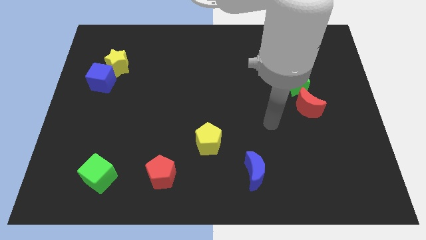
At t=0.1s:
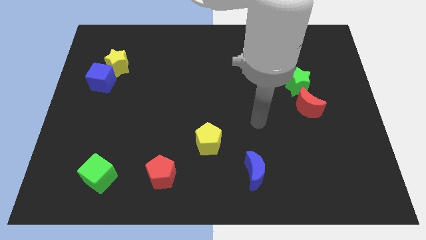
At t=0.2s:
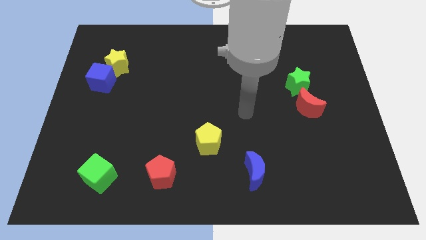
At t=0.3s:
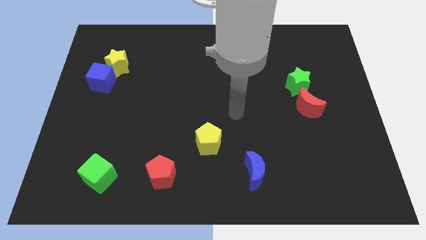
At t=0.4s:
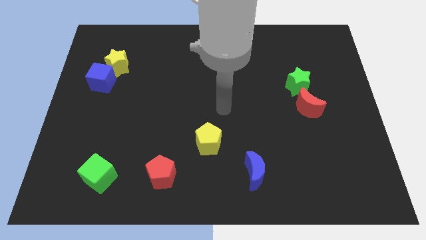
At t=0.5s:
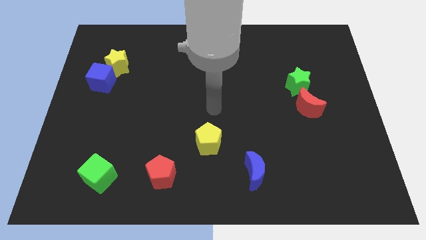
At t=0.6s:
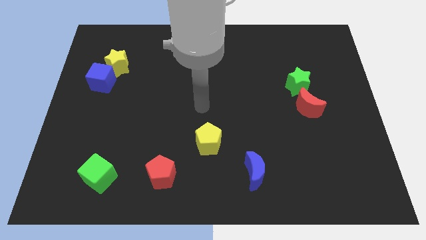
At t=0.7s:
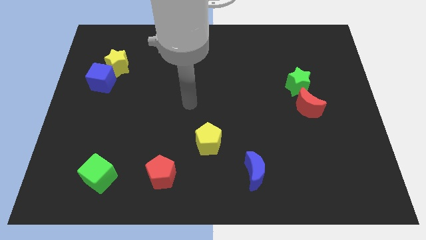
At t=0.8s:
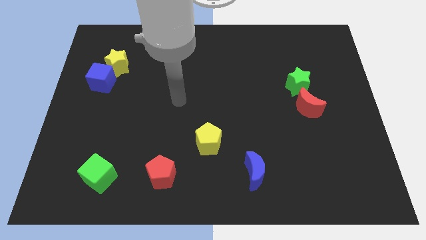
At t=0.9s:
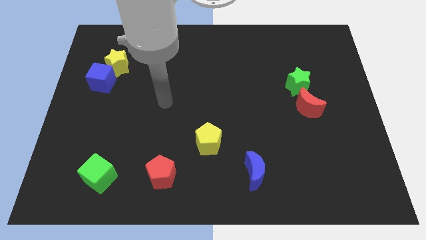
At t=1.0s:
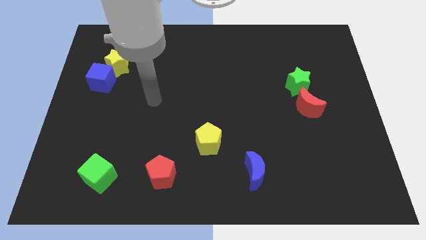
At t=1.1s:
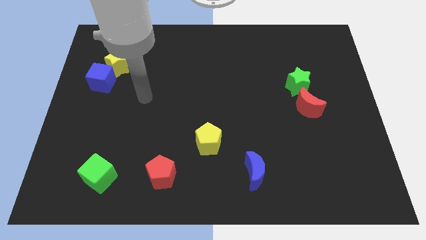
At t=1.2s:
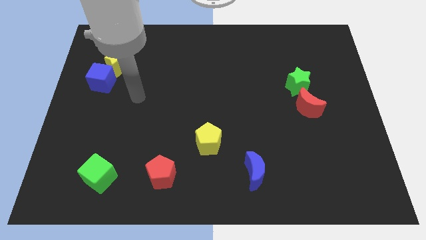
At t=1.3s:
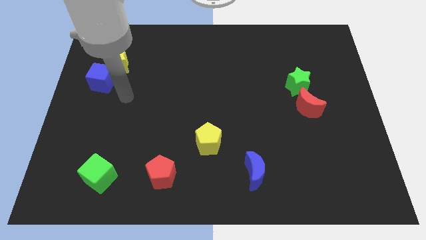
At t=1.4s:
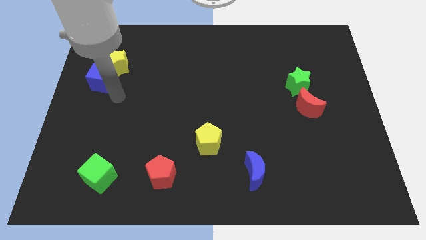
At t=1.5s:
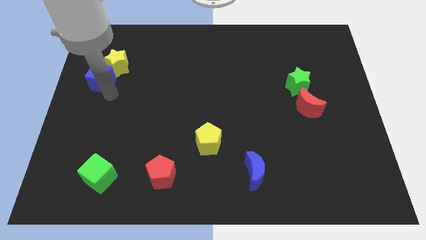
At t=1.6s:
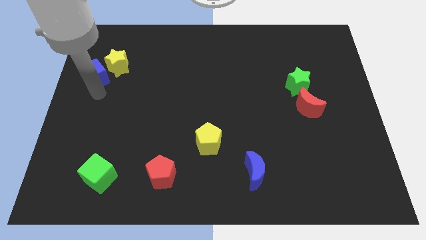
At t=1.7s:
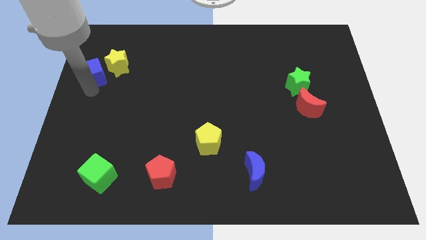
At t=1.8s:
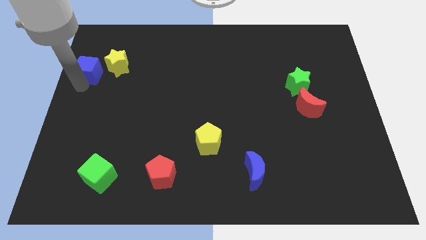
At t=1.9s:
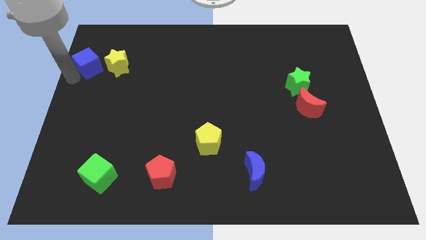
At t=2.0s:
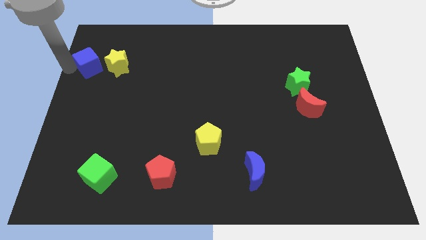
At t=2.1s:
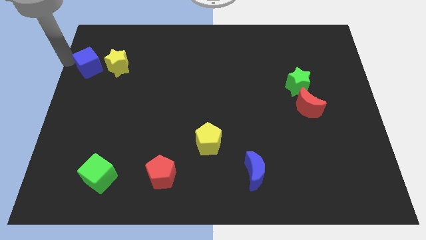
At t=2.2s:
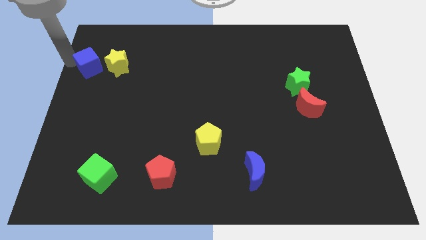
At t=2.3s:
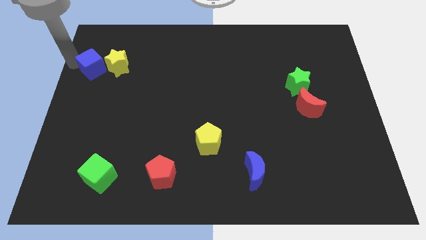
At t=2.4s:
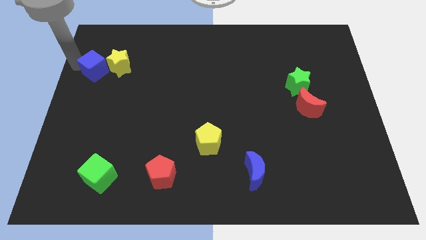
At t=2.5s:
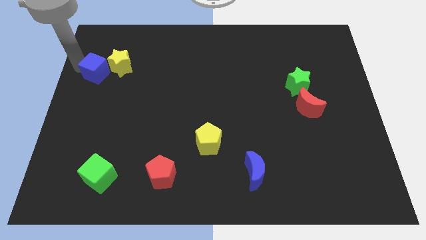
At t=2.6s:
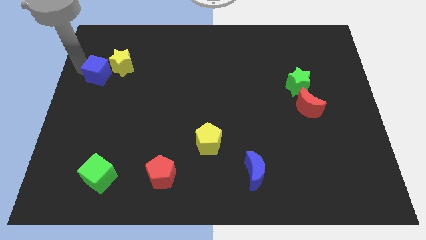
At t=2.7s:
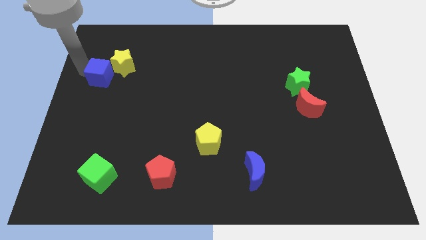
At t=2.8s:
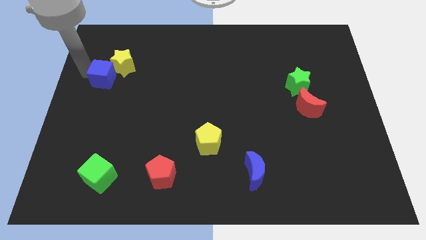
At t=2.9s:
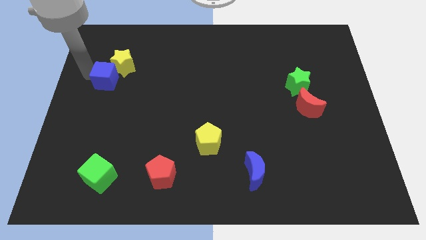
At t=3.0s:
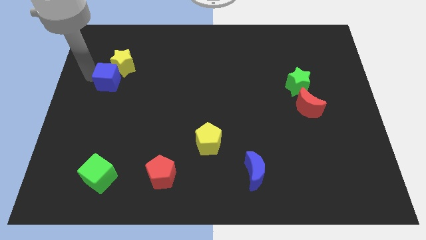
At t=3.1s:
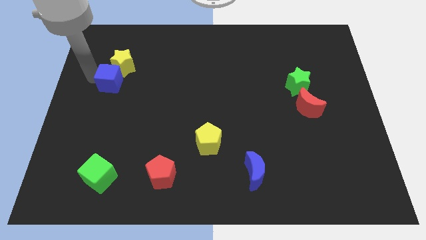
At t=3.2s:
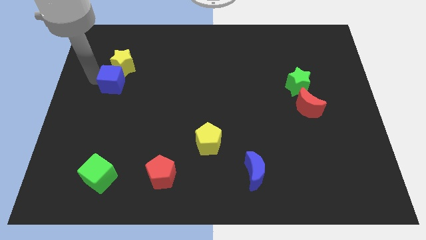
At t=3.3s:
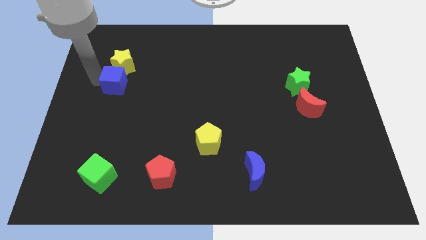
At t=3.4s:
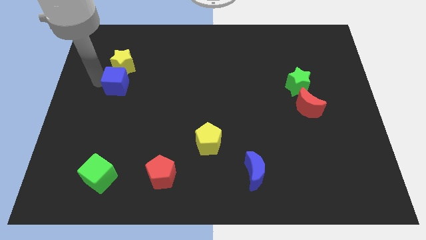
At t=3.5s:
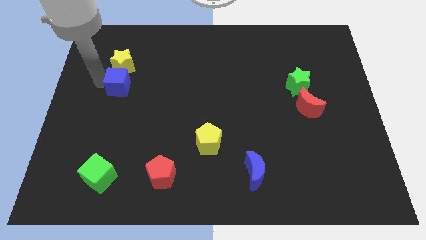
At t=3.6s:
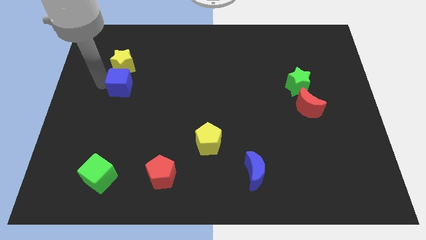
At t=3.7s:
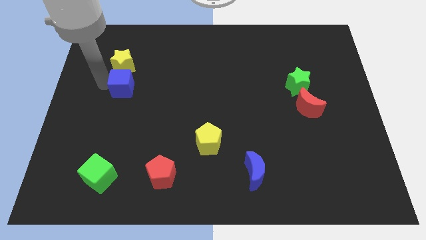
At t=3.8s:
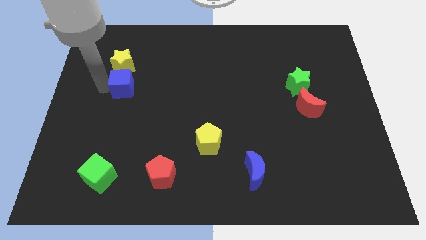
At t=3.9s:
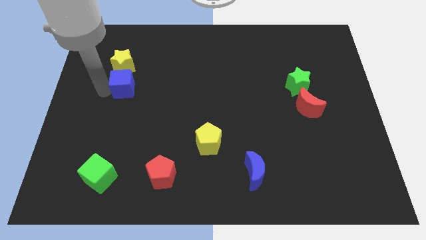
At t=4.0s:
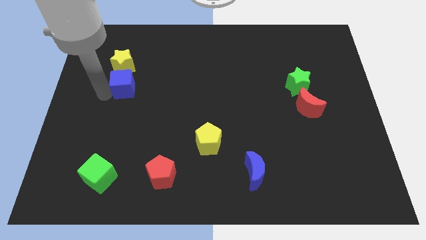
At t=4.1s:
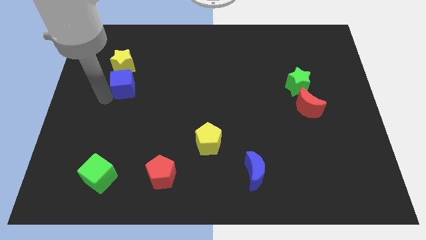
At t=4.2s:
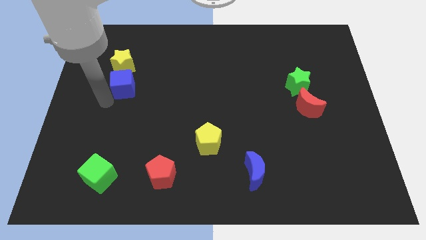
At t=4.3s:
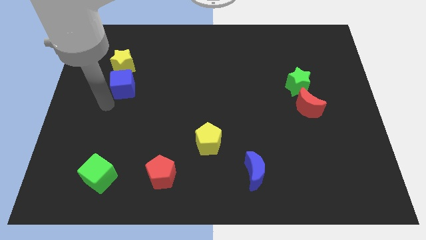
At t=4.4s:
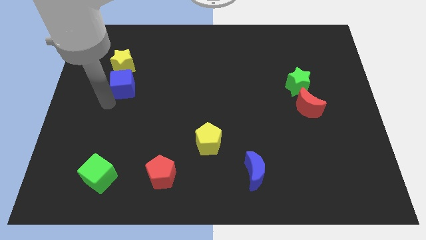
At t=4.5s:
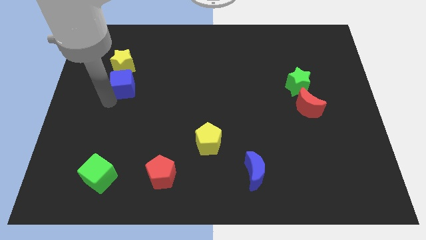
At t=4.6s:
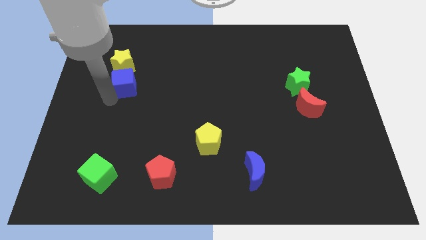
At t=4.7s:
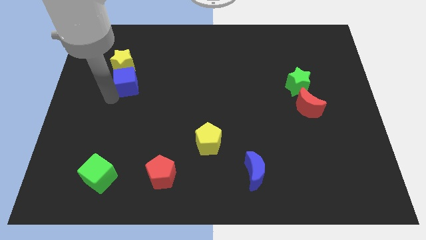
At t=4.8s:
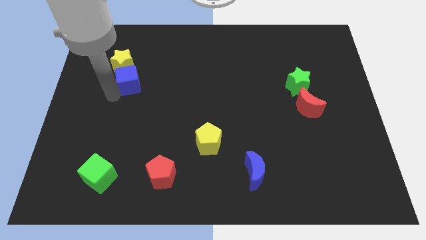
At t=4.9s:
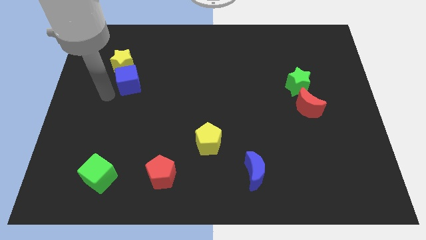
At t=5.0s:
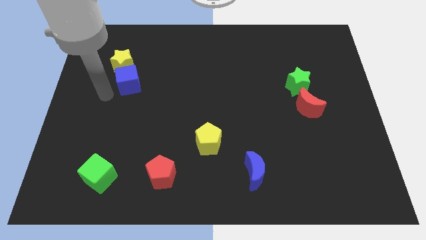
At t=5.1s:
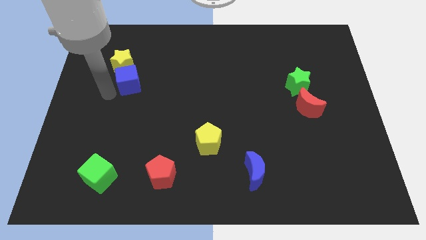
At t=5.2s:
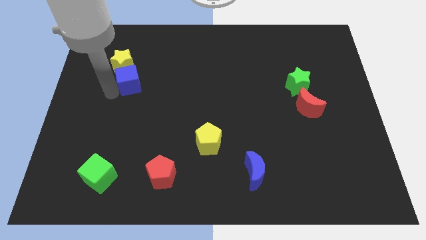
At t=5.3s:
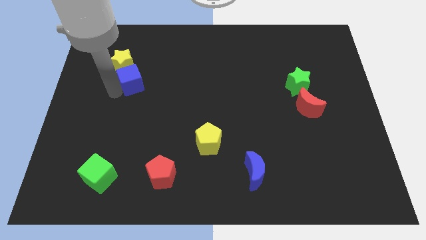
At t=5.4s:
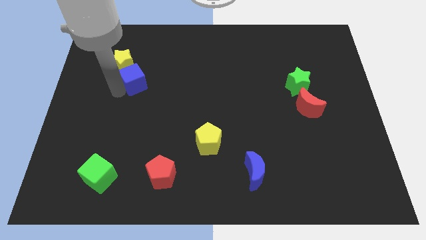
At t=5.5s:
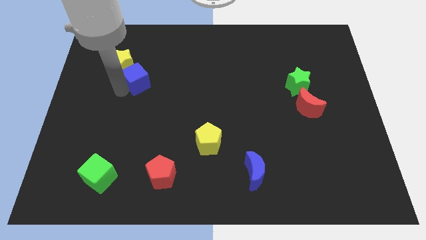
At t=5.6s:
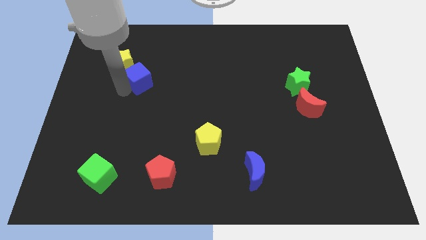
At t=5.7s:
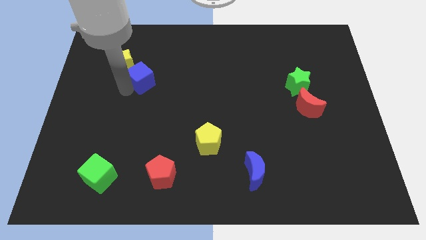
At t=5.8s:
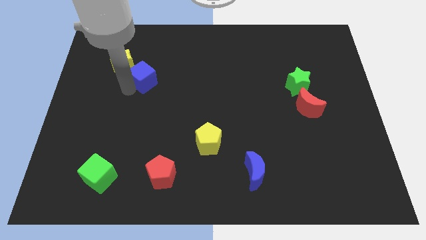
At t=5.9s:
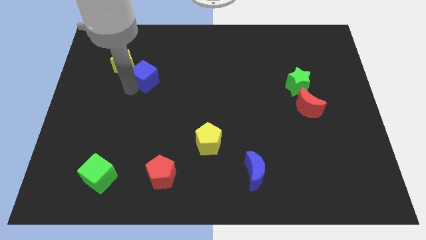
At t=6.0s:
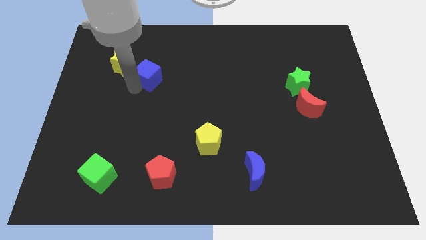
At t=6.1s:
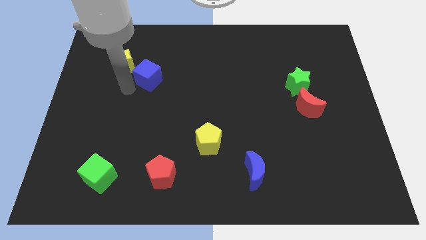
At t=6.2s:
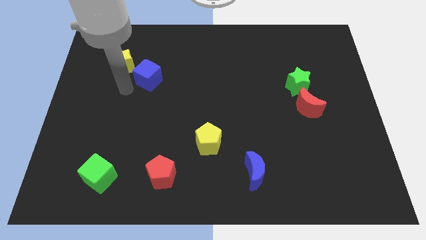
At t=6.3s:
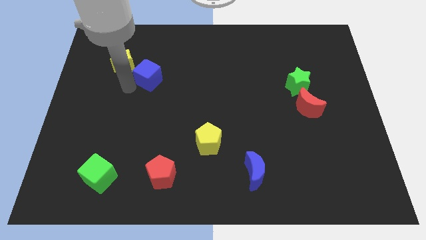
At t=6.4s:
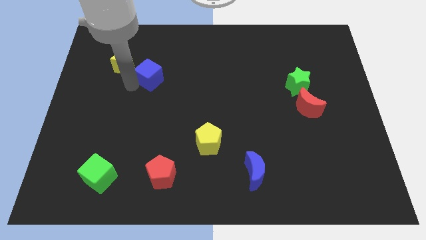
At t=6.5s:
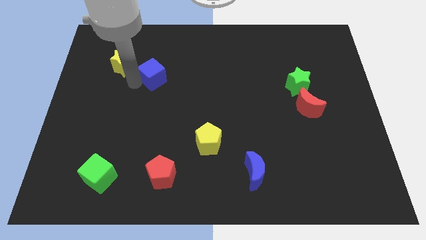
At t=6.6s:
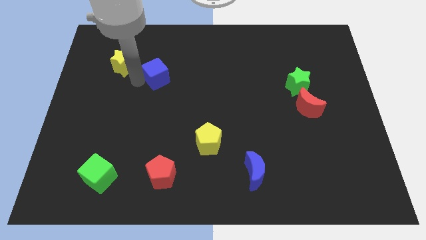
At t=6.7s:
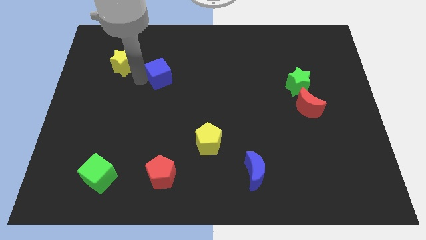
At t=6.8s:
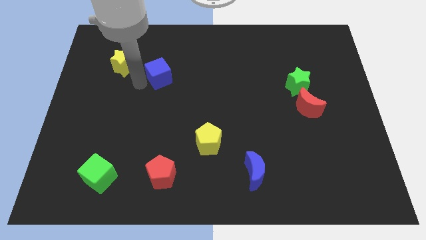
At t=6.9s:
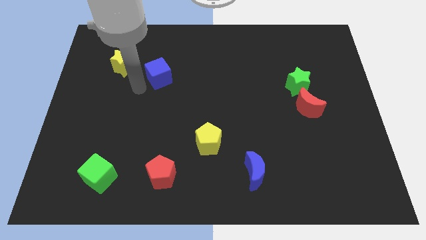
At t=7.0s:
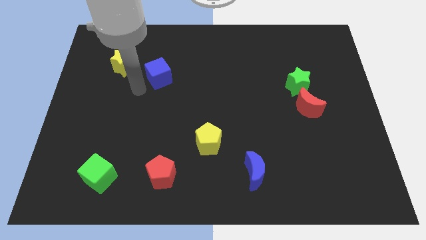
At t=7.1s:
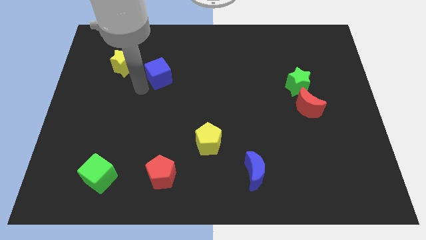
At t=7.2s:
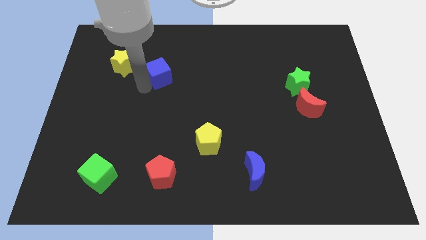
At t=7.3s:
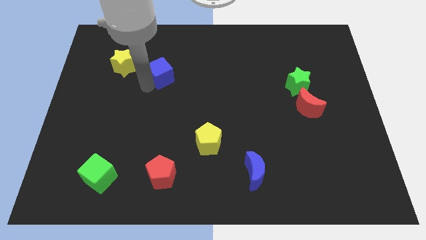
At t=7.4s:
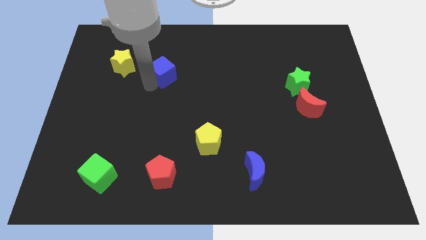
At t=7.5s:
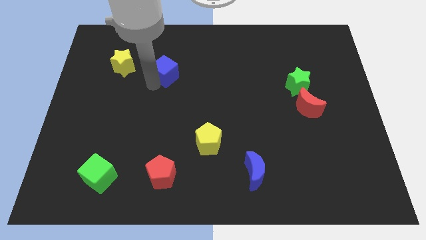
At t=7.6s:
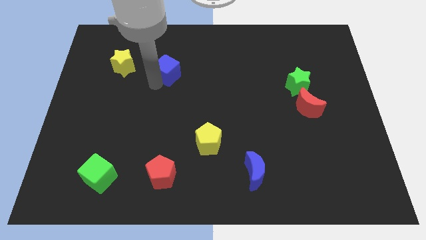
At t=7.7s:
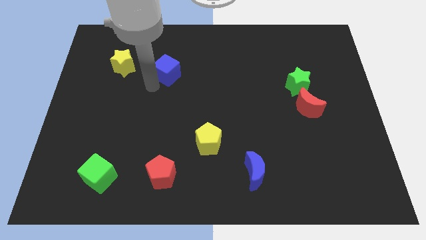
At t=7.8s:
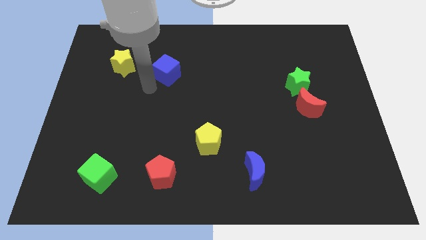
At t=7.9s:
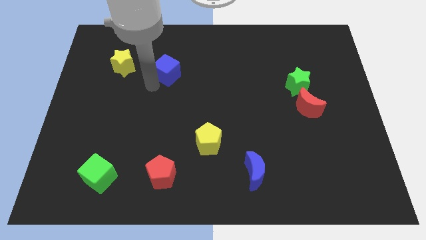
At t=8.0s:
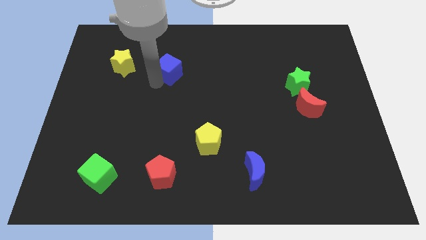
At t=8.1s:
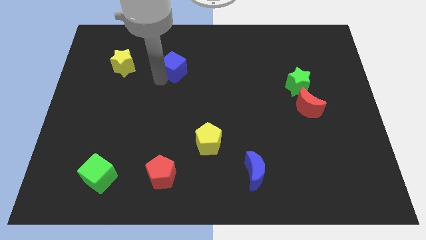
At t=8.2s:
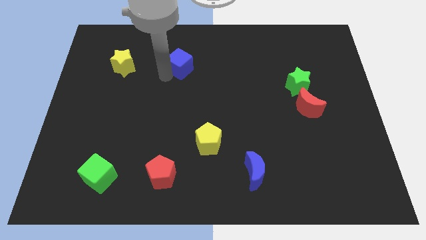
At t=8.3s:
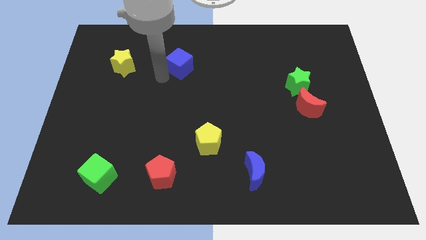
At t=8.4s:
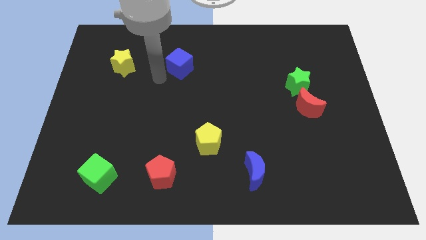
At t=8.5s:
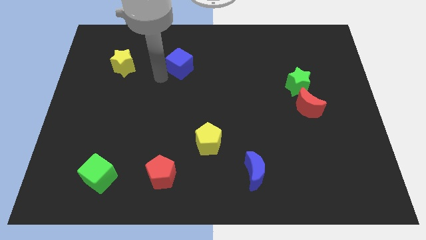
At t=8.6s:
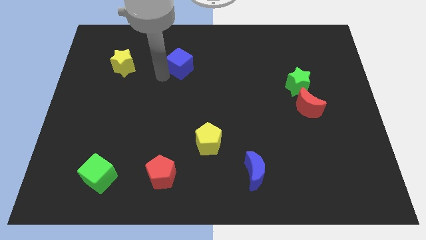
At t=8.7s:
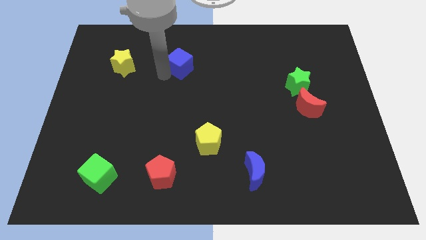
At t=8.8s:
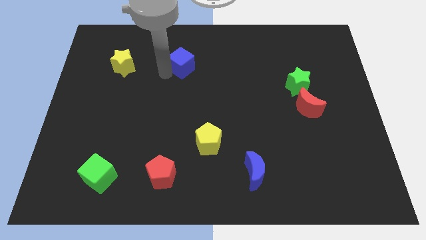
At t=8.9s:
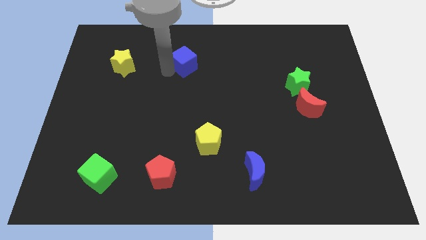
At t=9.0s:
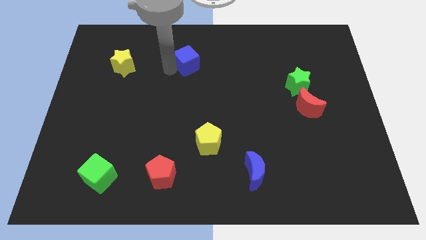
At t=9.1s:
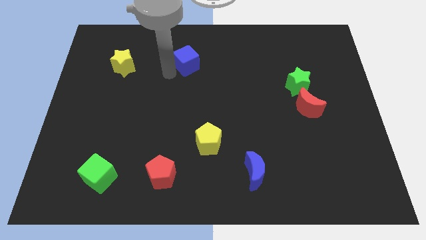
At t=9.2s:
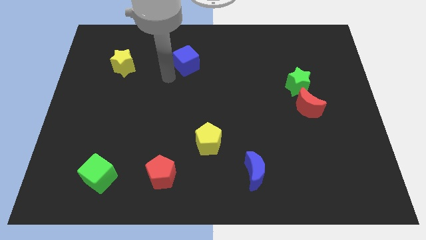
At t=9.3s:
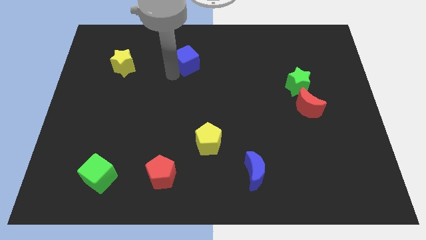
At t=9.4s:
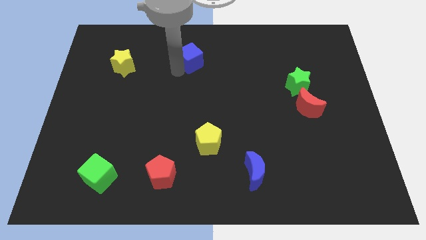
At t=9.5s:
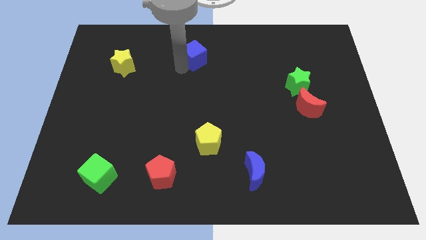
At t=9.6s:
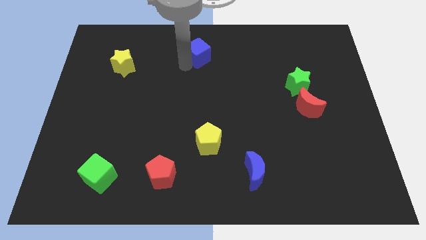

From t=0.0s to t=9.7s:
put the blue cube to the towards your base
